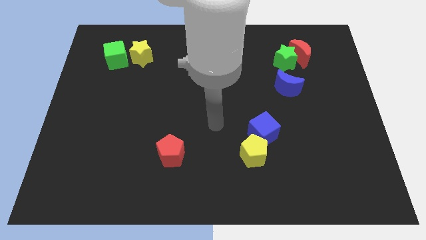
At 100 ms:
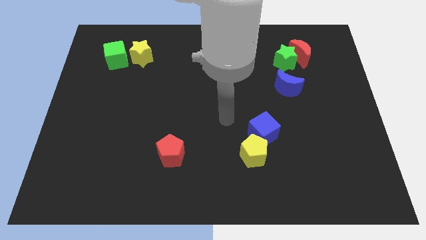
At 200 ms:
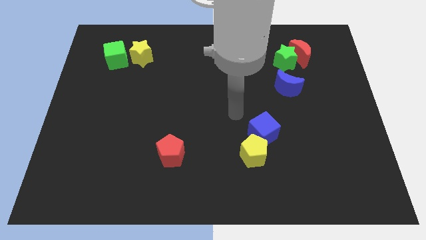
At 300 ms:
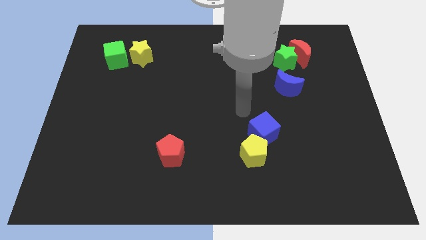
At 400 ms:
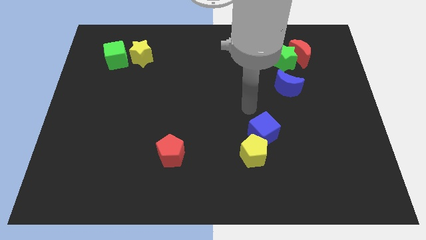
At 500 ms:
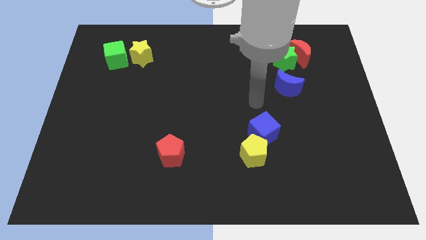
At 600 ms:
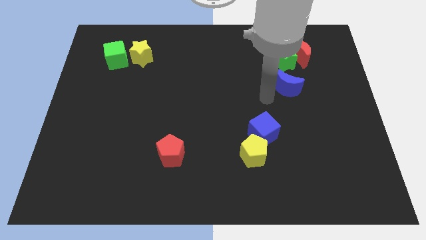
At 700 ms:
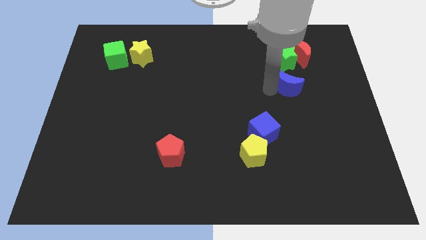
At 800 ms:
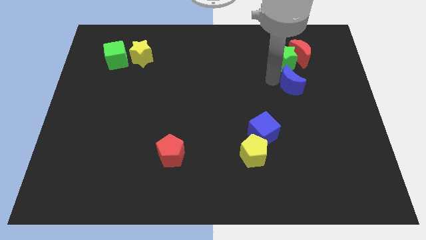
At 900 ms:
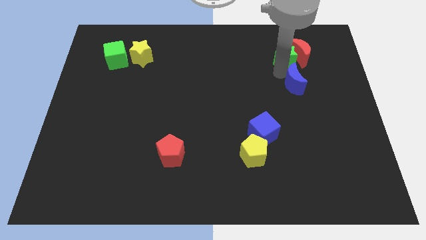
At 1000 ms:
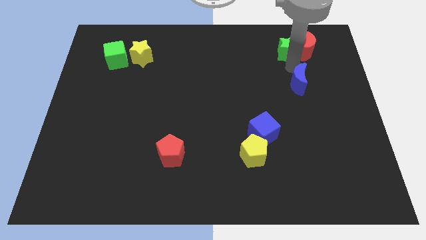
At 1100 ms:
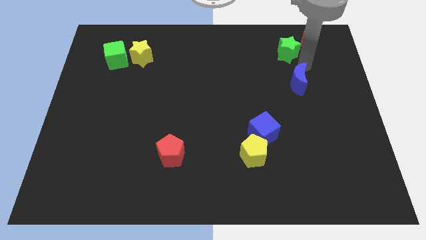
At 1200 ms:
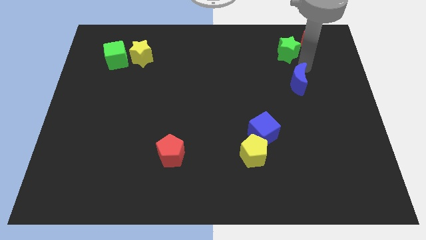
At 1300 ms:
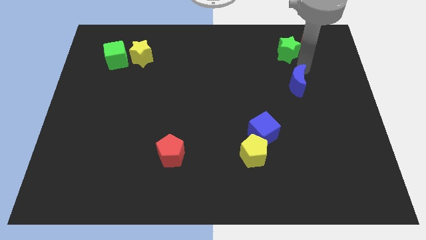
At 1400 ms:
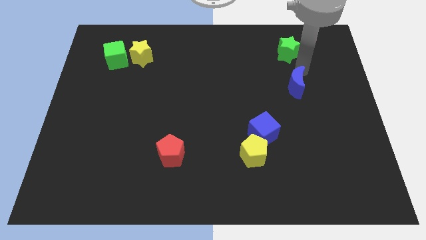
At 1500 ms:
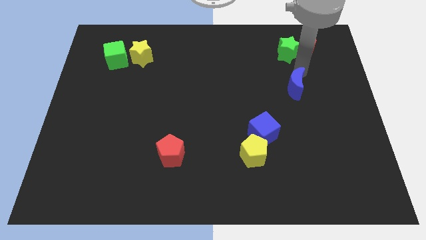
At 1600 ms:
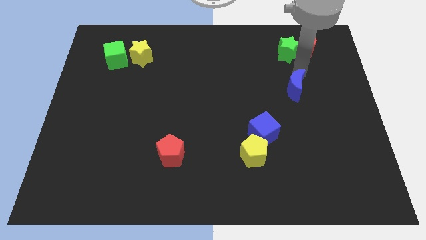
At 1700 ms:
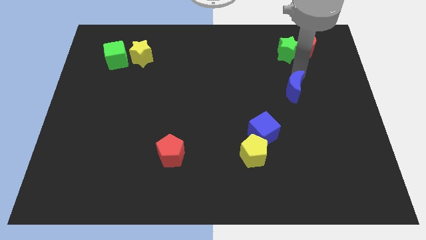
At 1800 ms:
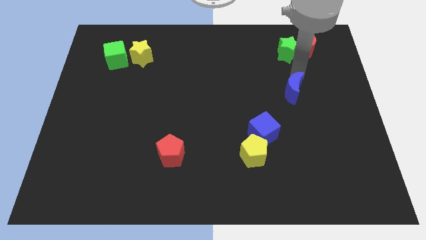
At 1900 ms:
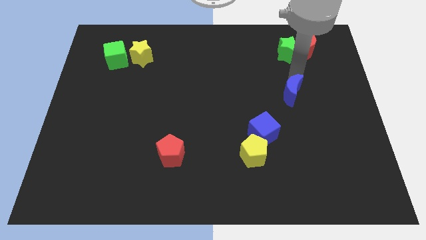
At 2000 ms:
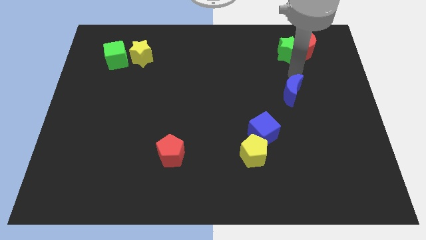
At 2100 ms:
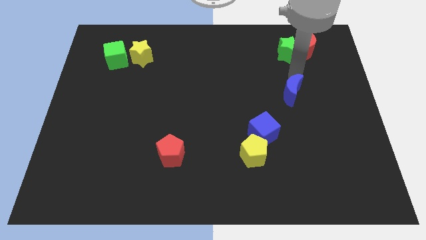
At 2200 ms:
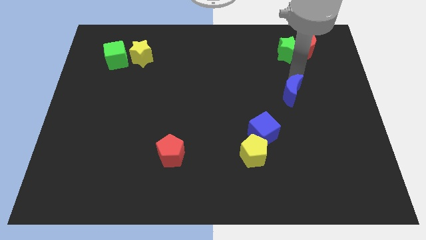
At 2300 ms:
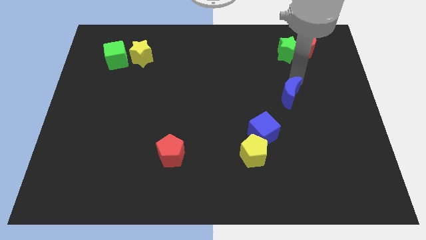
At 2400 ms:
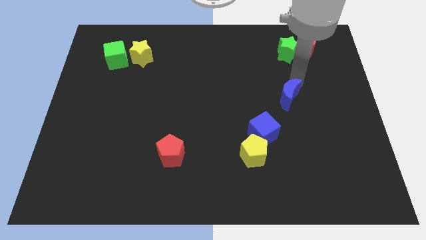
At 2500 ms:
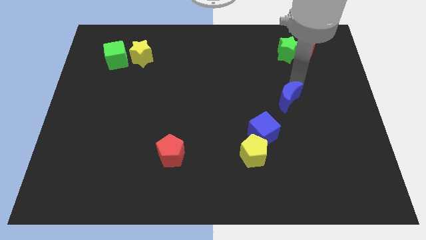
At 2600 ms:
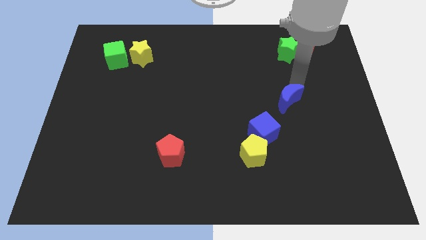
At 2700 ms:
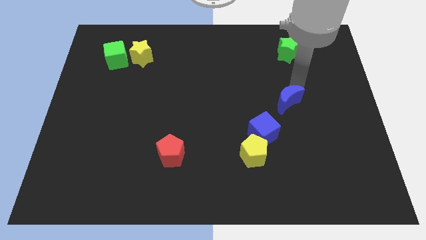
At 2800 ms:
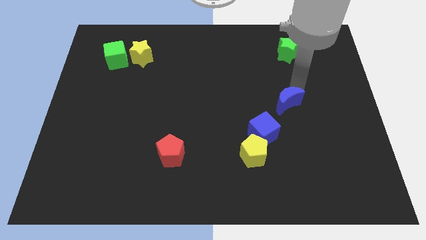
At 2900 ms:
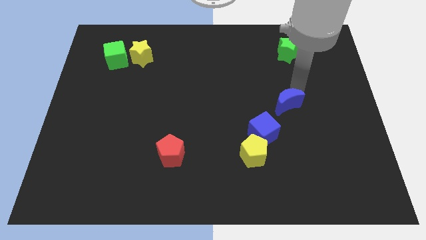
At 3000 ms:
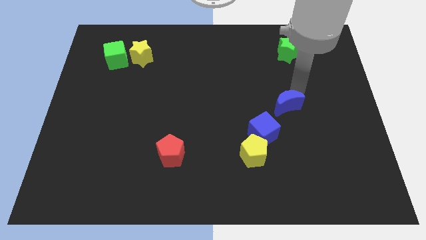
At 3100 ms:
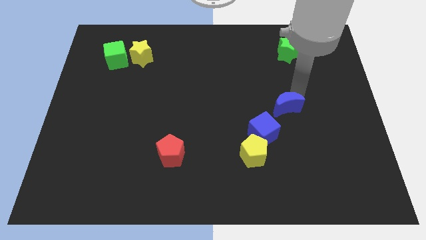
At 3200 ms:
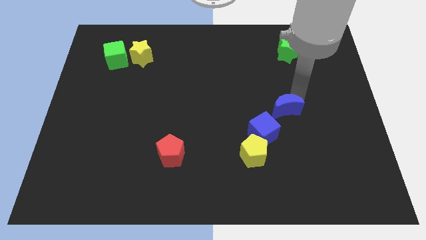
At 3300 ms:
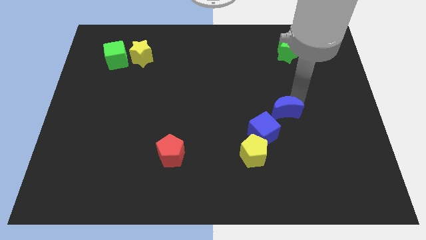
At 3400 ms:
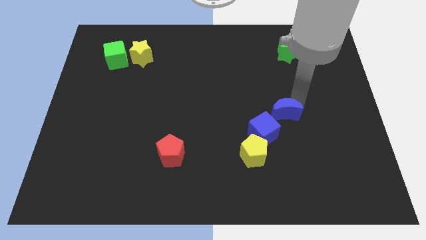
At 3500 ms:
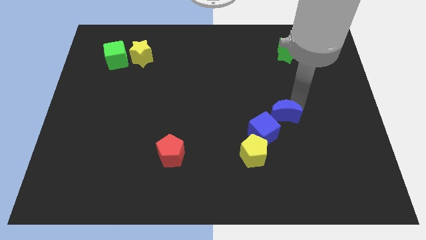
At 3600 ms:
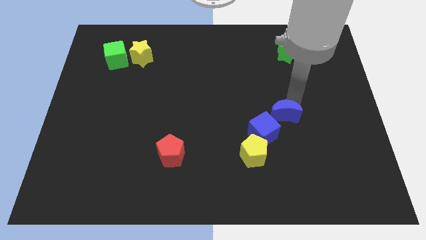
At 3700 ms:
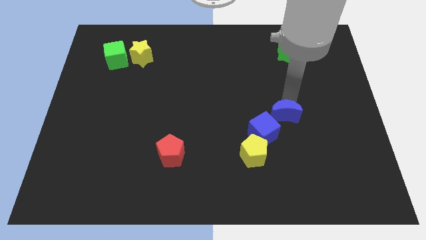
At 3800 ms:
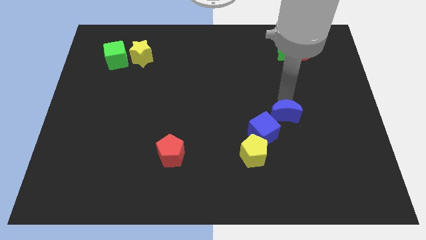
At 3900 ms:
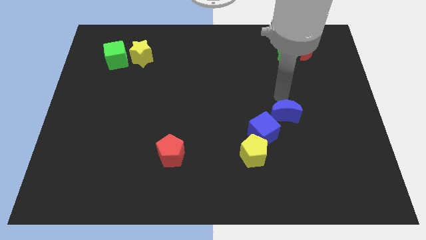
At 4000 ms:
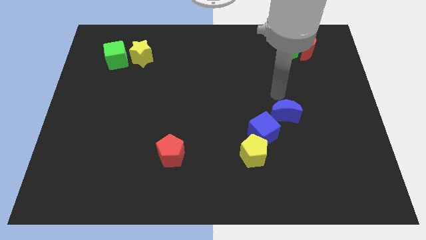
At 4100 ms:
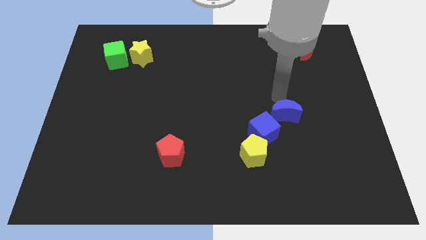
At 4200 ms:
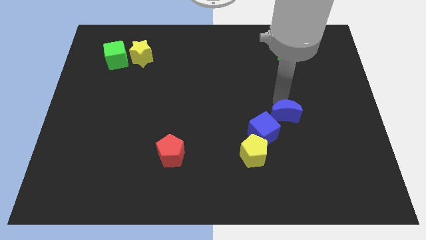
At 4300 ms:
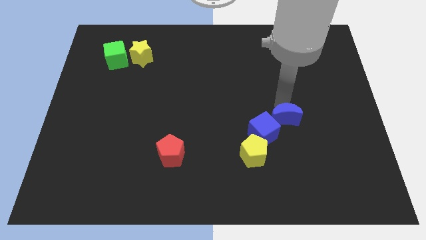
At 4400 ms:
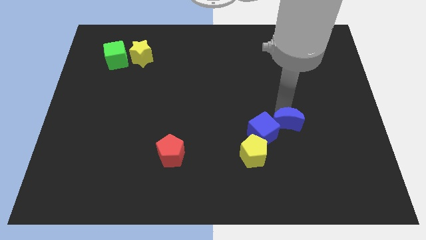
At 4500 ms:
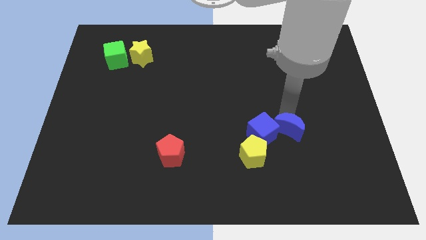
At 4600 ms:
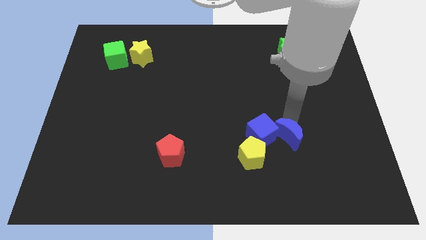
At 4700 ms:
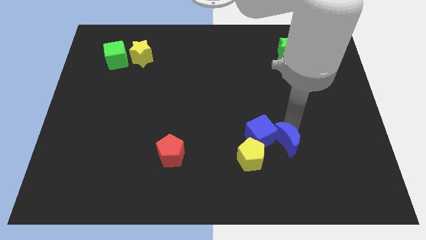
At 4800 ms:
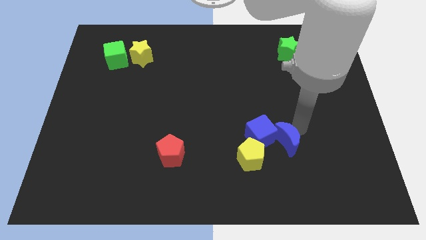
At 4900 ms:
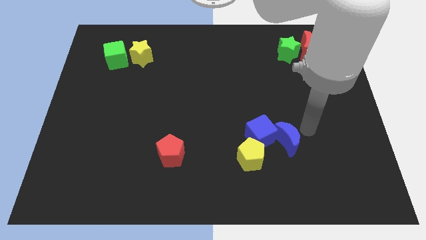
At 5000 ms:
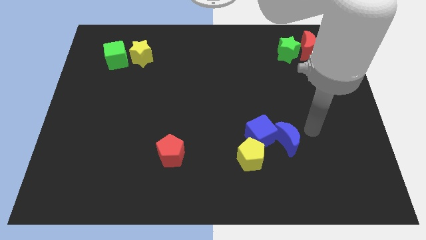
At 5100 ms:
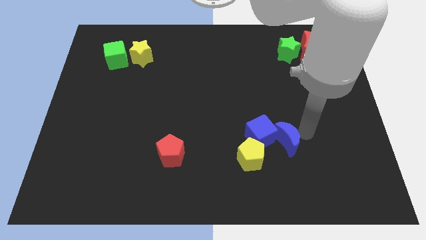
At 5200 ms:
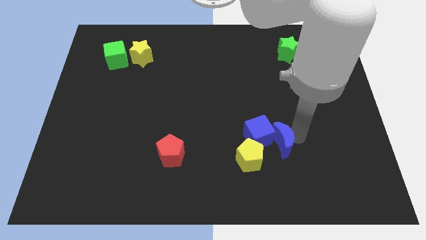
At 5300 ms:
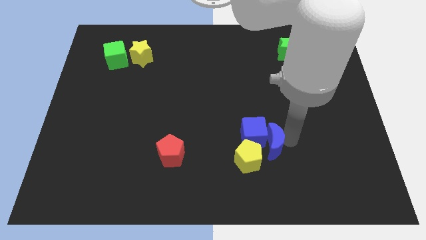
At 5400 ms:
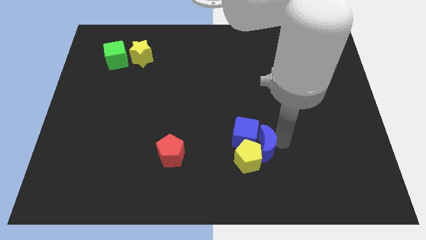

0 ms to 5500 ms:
put the blue moon close to the yellow pentagon

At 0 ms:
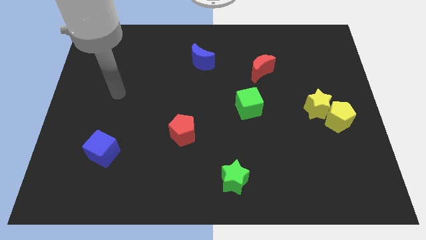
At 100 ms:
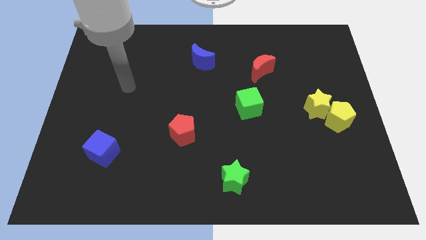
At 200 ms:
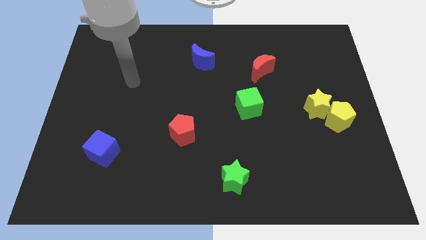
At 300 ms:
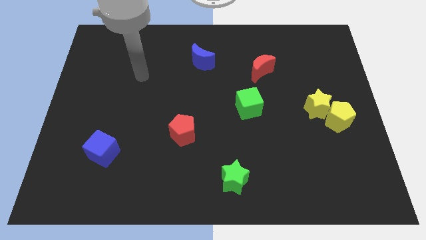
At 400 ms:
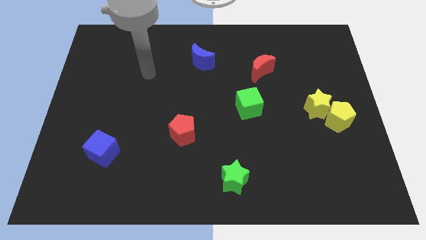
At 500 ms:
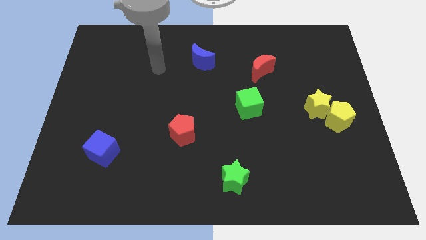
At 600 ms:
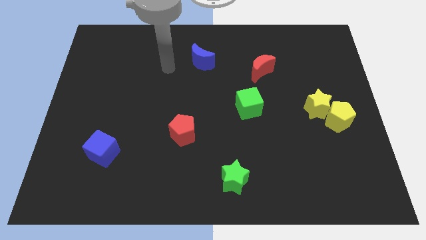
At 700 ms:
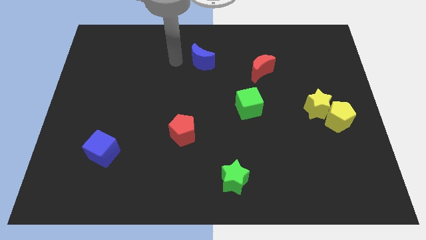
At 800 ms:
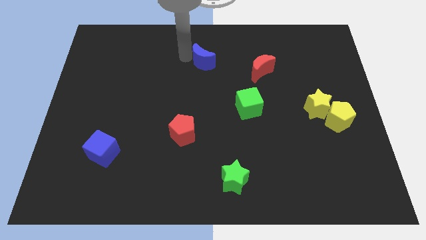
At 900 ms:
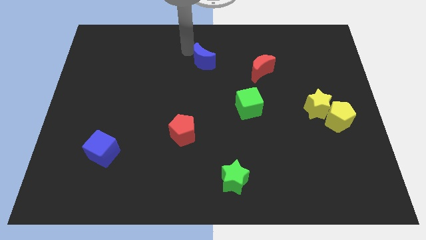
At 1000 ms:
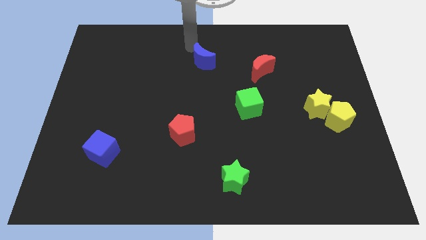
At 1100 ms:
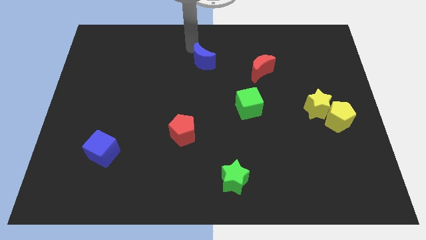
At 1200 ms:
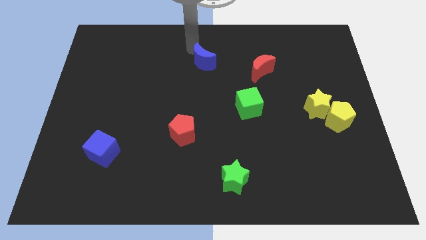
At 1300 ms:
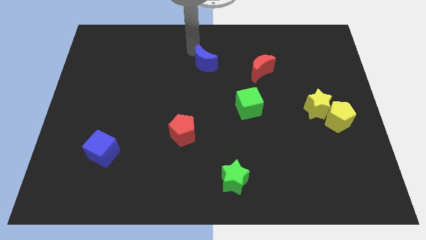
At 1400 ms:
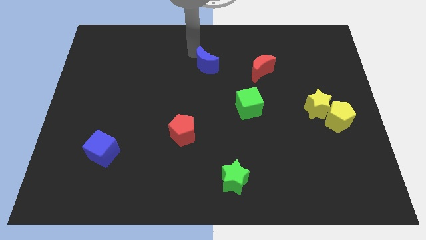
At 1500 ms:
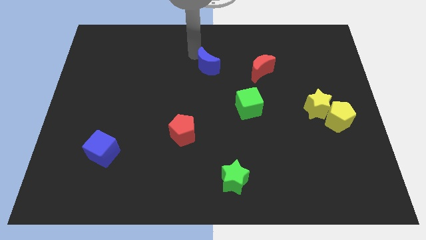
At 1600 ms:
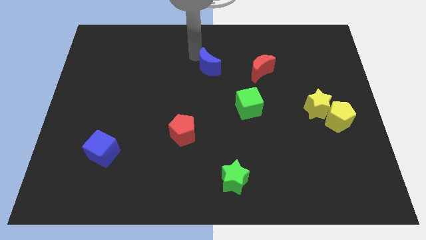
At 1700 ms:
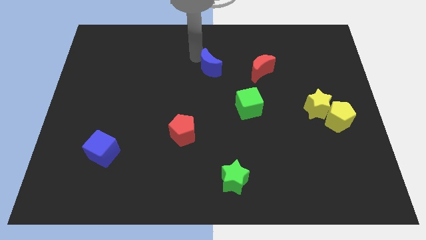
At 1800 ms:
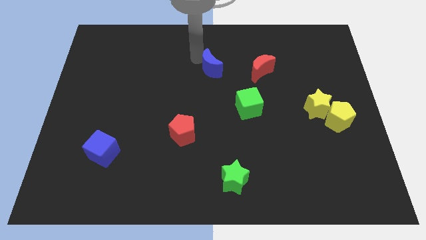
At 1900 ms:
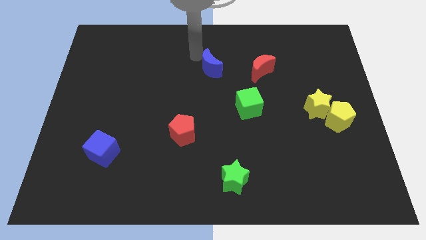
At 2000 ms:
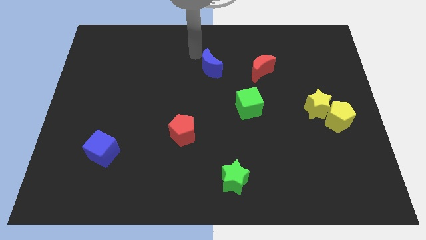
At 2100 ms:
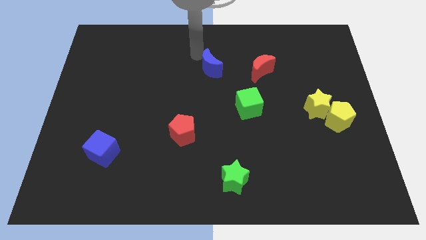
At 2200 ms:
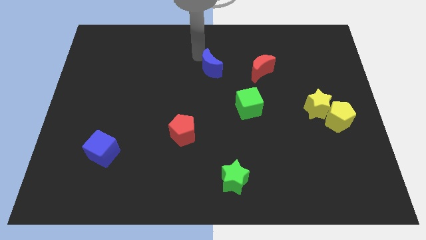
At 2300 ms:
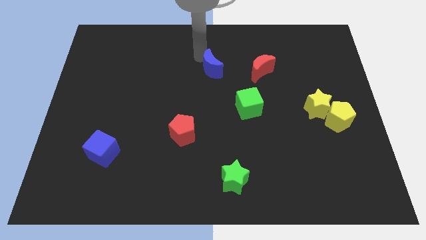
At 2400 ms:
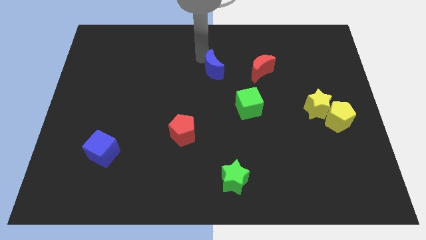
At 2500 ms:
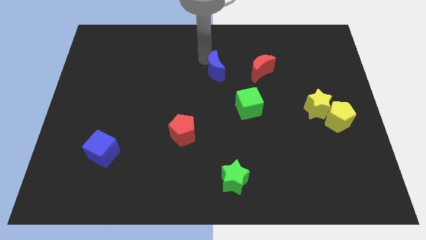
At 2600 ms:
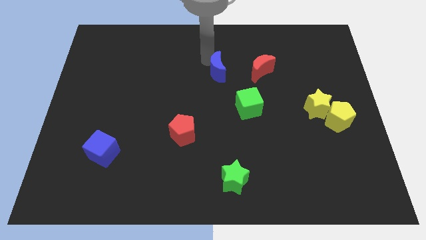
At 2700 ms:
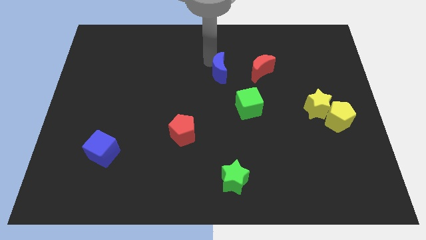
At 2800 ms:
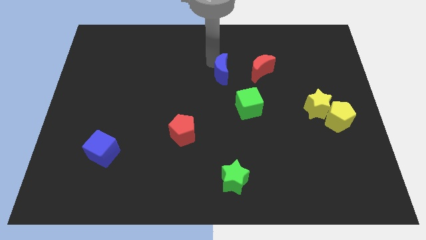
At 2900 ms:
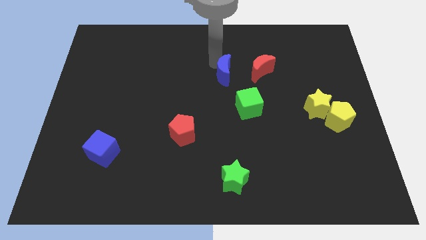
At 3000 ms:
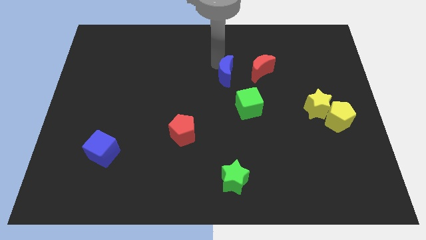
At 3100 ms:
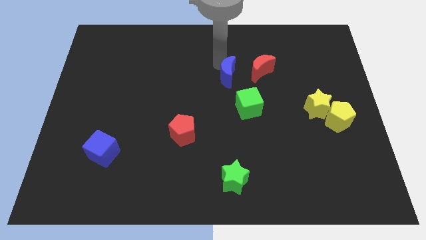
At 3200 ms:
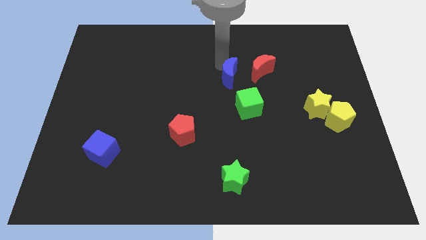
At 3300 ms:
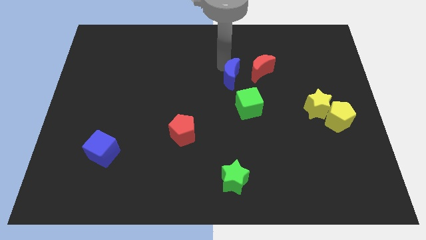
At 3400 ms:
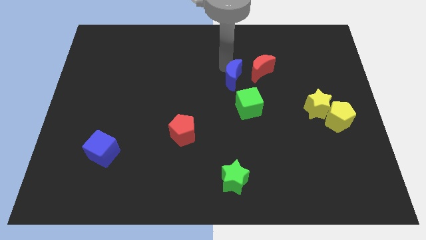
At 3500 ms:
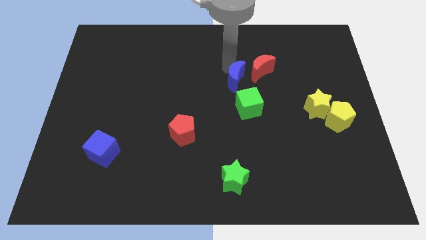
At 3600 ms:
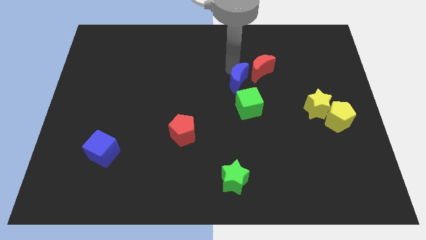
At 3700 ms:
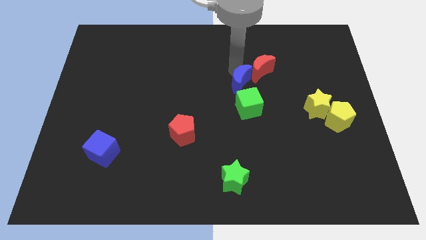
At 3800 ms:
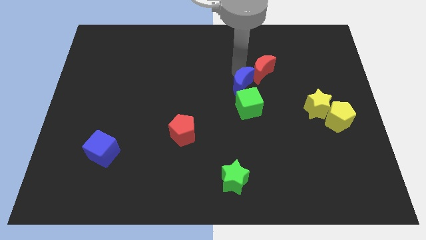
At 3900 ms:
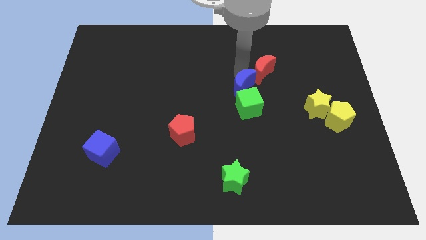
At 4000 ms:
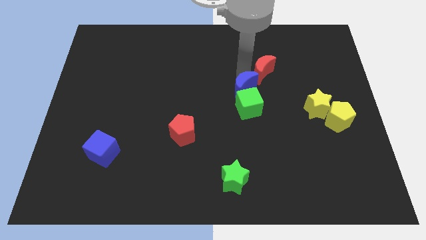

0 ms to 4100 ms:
push the blue moon close to the green cube
